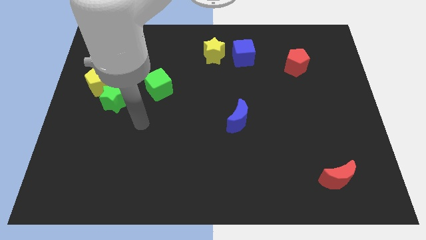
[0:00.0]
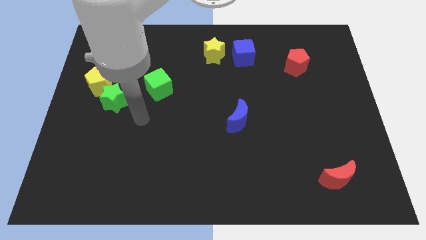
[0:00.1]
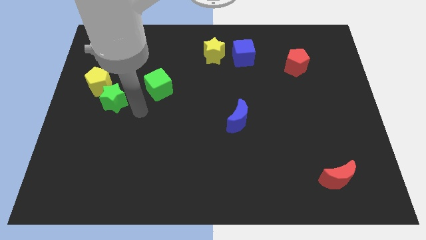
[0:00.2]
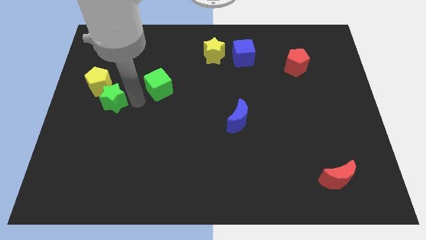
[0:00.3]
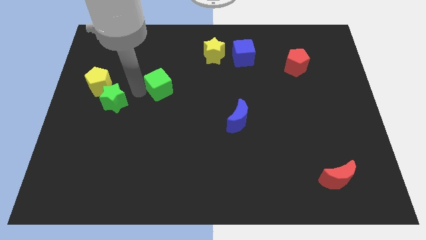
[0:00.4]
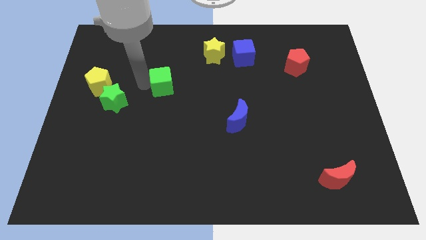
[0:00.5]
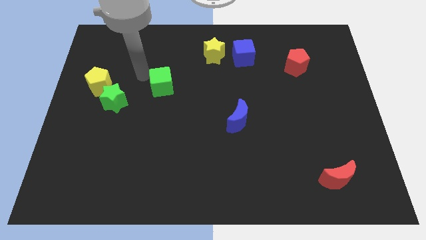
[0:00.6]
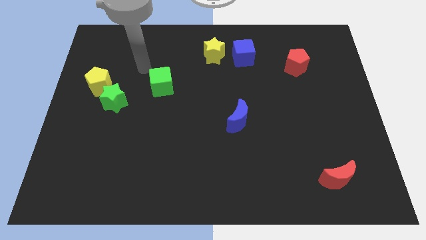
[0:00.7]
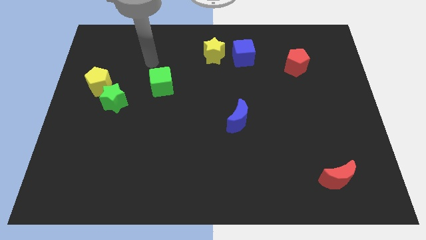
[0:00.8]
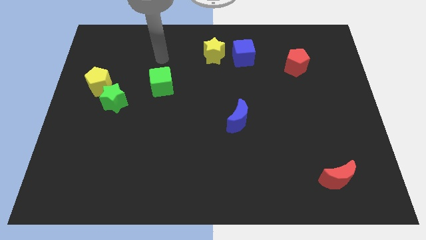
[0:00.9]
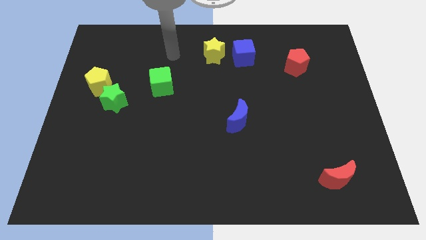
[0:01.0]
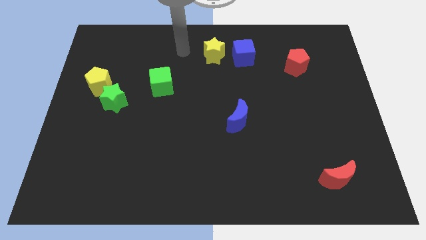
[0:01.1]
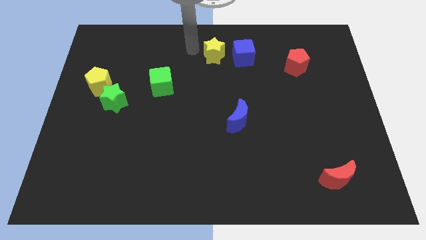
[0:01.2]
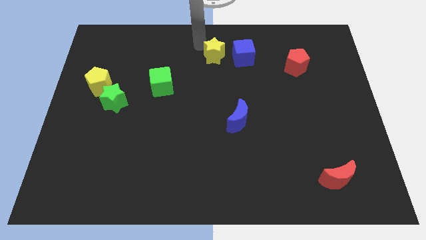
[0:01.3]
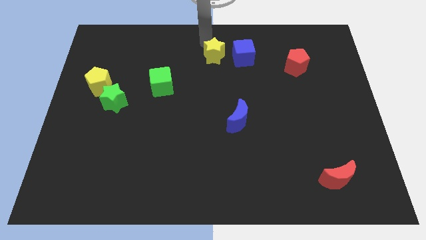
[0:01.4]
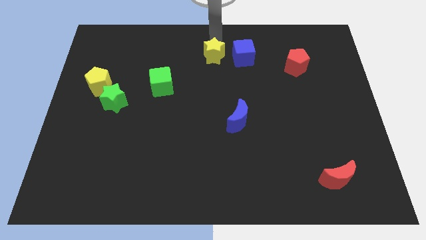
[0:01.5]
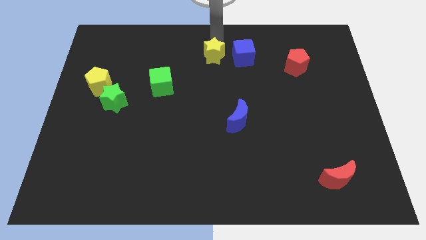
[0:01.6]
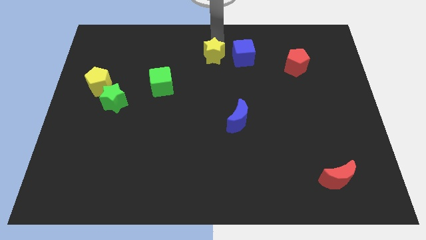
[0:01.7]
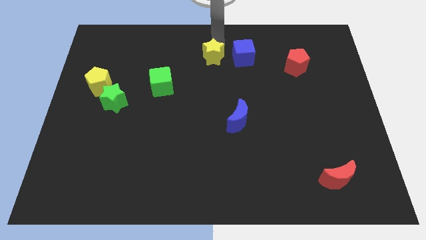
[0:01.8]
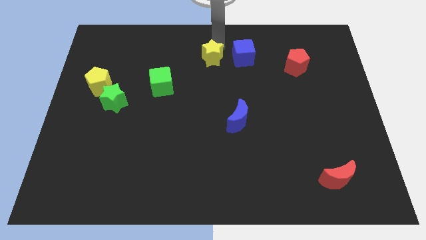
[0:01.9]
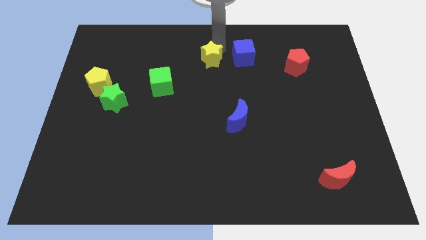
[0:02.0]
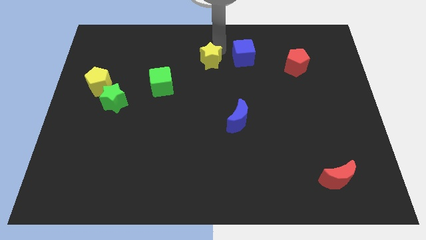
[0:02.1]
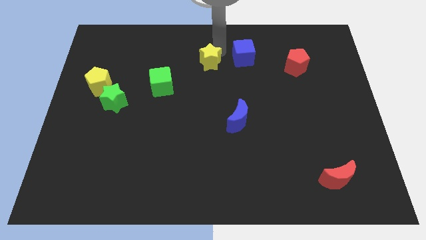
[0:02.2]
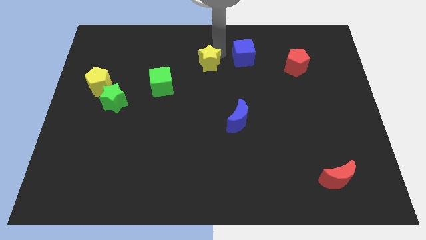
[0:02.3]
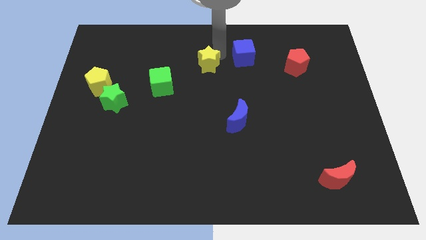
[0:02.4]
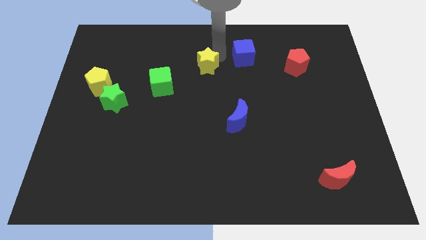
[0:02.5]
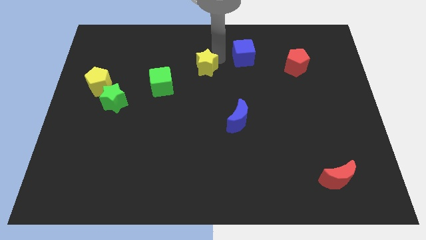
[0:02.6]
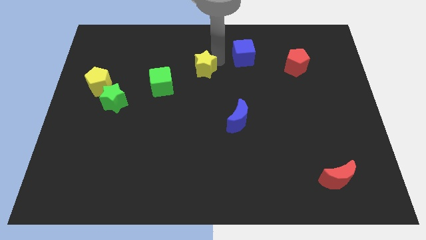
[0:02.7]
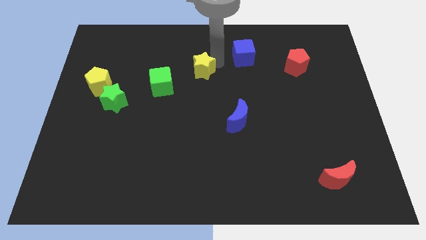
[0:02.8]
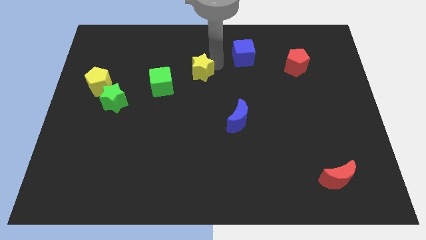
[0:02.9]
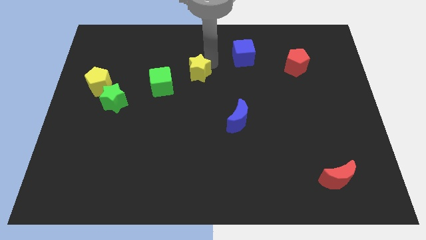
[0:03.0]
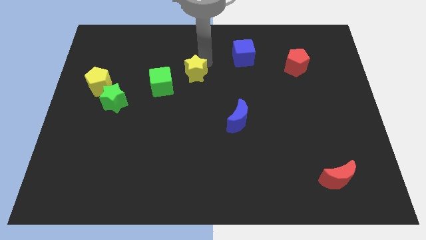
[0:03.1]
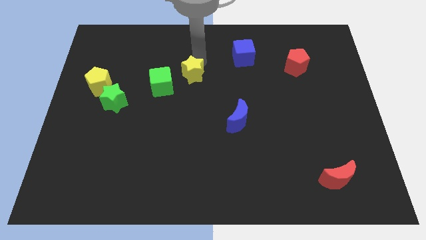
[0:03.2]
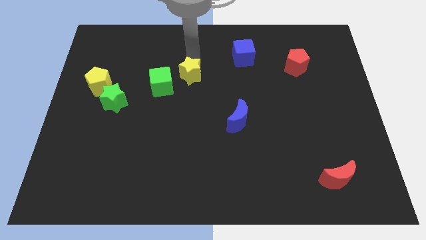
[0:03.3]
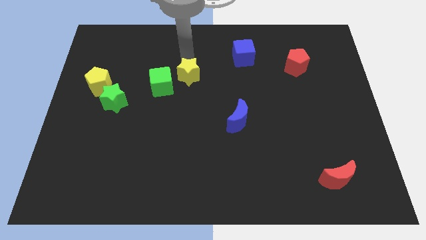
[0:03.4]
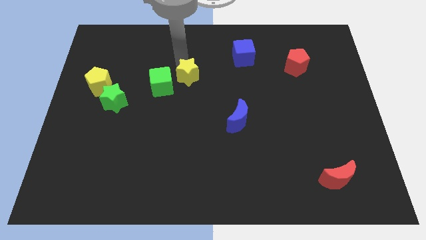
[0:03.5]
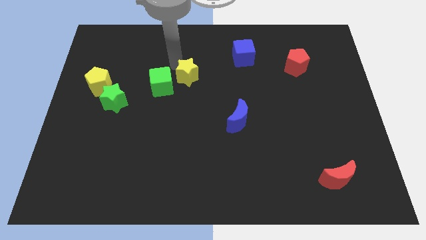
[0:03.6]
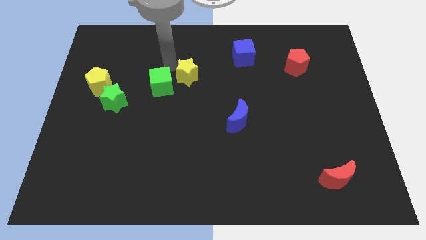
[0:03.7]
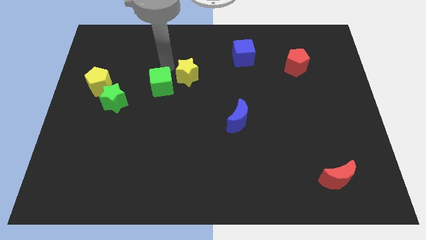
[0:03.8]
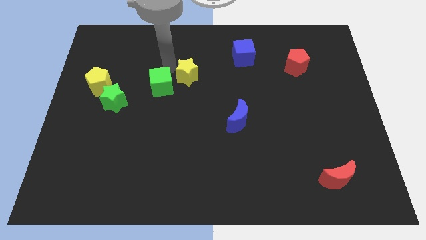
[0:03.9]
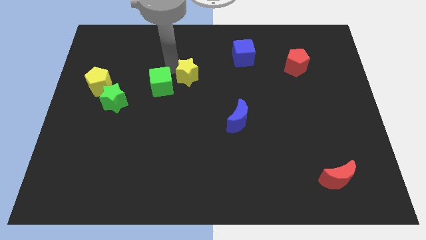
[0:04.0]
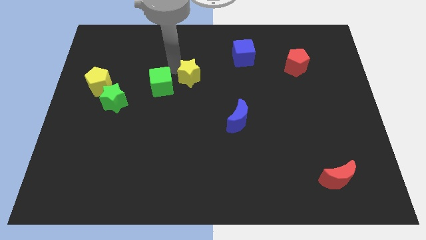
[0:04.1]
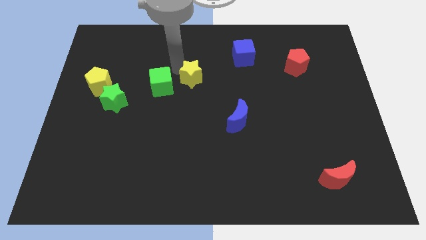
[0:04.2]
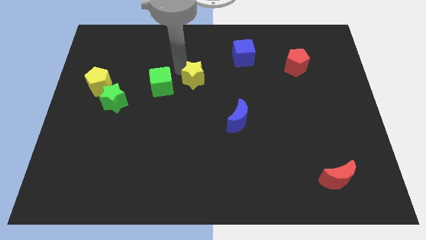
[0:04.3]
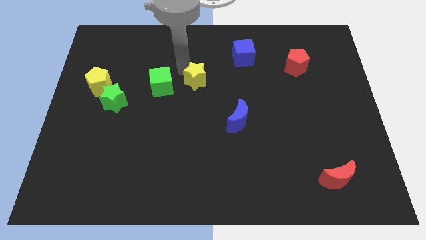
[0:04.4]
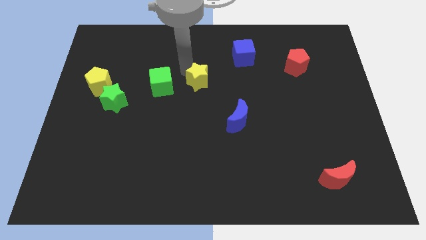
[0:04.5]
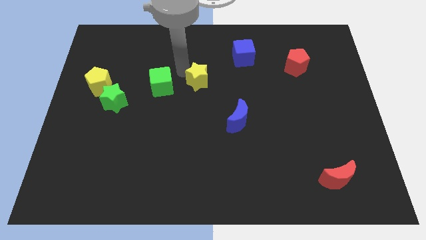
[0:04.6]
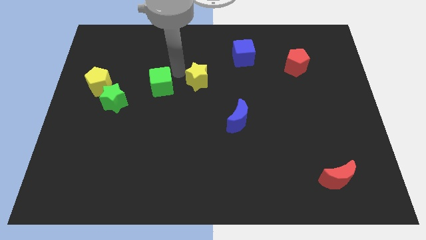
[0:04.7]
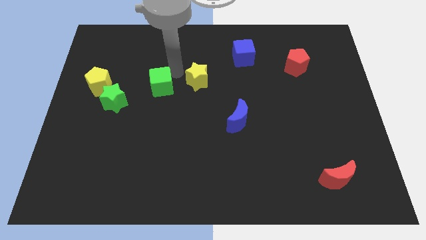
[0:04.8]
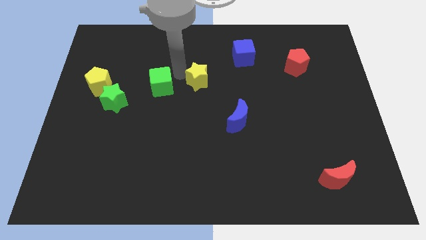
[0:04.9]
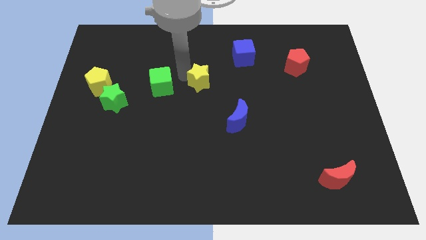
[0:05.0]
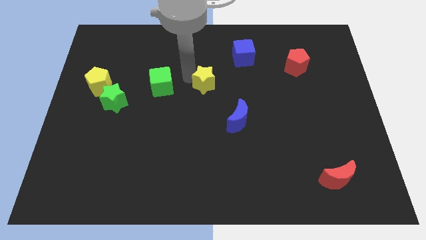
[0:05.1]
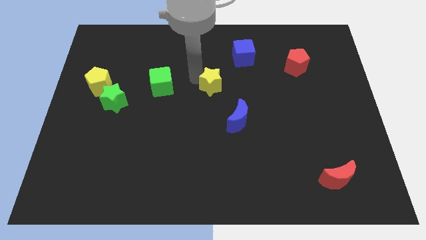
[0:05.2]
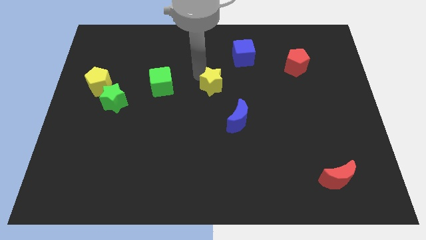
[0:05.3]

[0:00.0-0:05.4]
slide the yellow star diagonally up and to the left of the blue moon

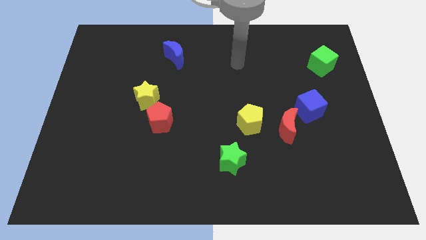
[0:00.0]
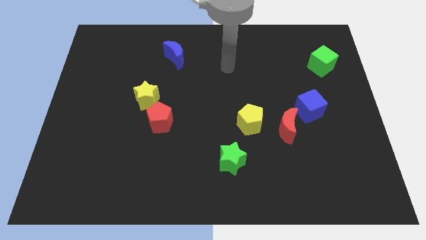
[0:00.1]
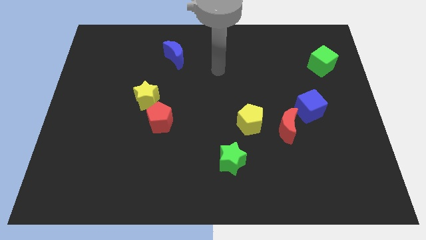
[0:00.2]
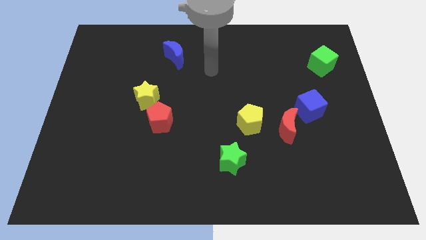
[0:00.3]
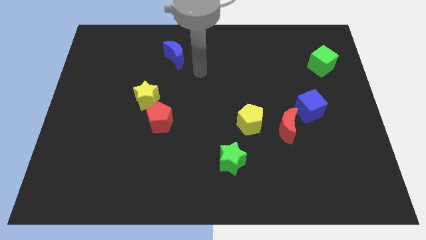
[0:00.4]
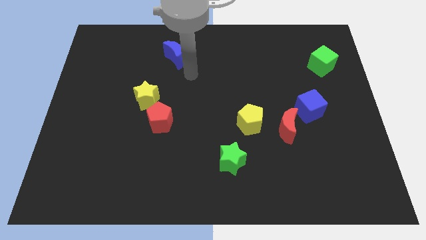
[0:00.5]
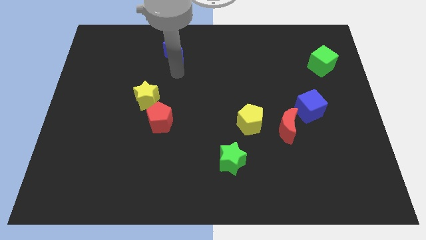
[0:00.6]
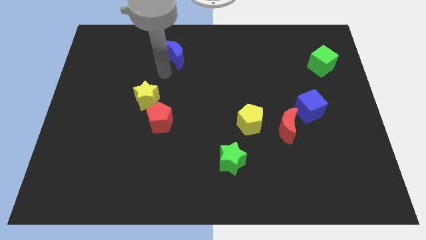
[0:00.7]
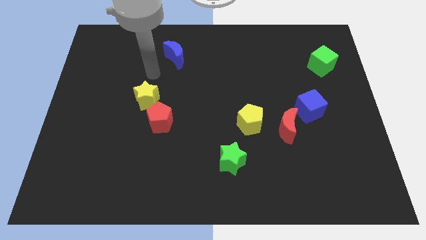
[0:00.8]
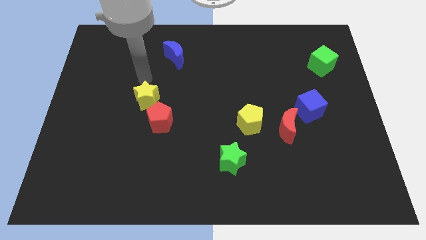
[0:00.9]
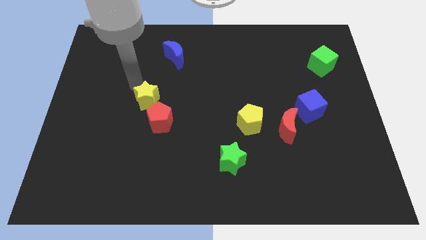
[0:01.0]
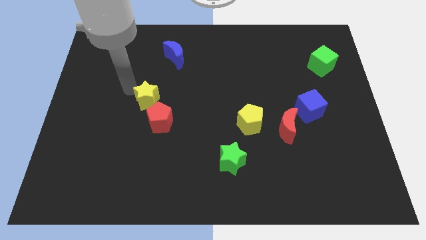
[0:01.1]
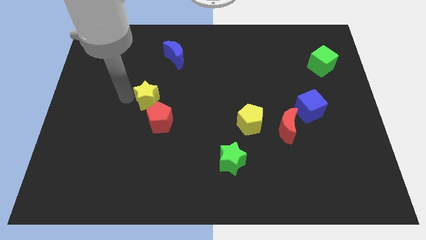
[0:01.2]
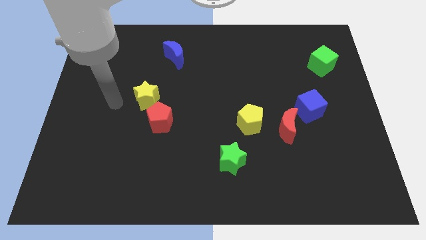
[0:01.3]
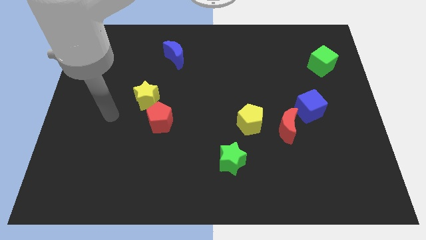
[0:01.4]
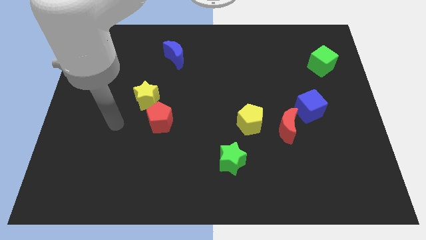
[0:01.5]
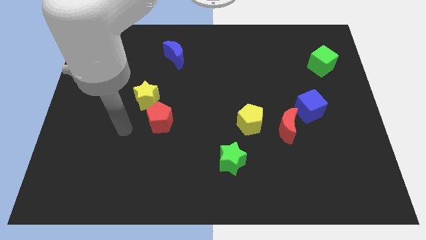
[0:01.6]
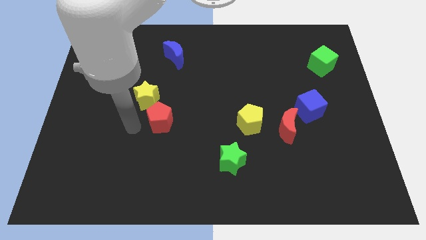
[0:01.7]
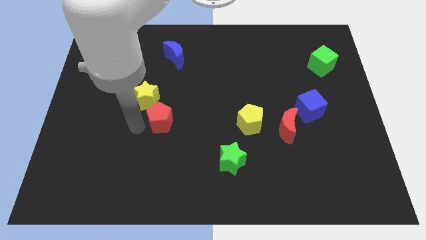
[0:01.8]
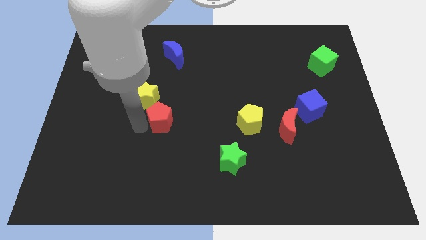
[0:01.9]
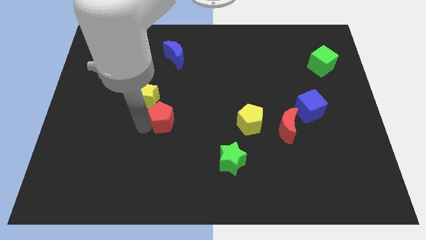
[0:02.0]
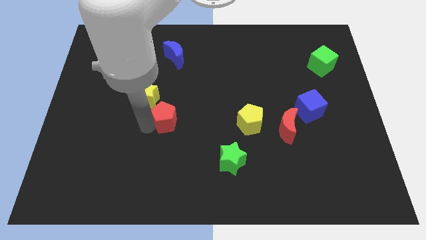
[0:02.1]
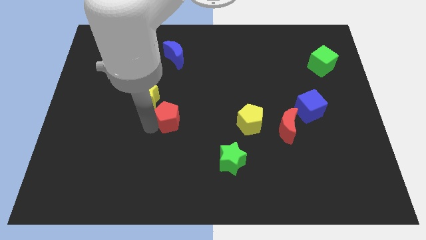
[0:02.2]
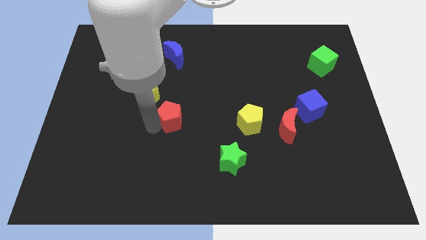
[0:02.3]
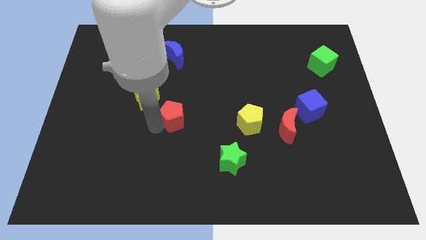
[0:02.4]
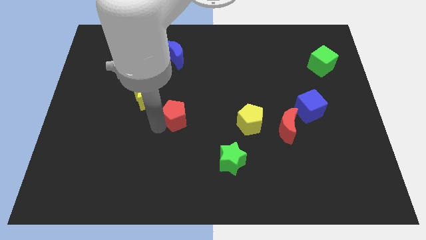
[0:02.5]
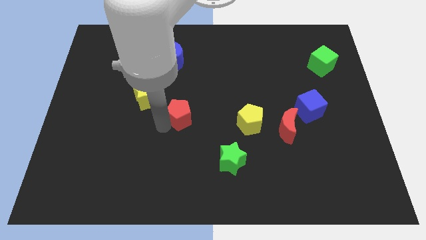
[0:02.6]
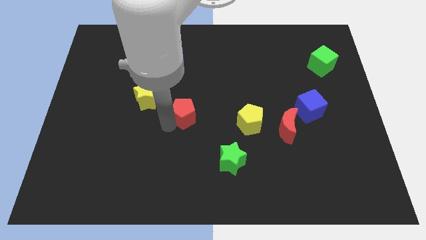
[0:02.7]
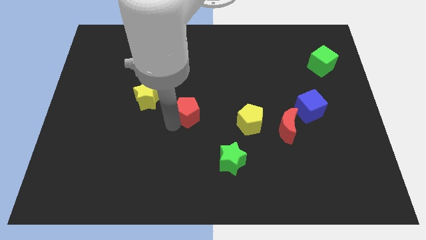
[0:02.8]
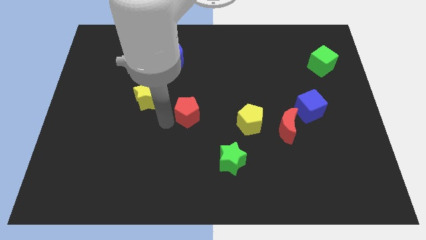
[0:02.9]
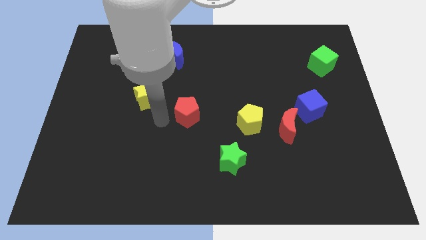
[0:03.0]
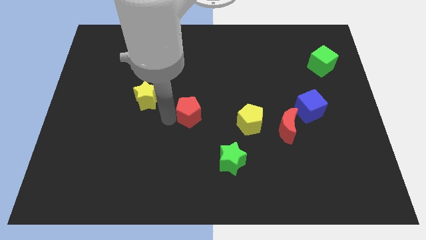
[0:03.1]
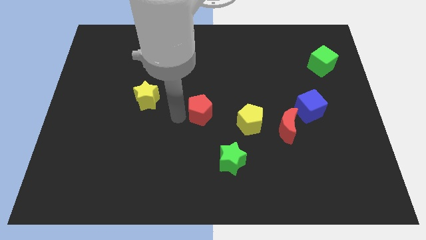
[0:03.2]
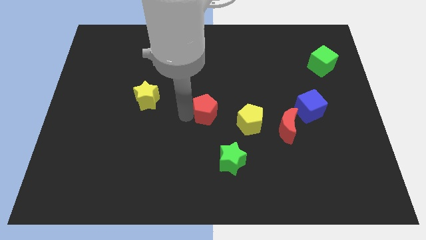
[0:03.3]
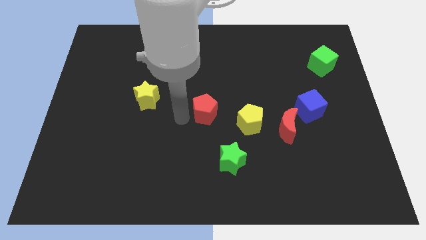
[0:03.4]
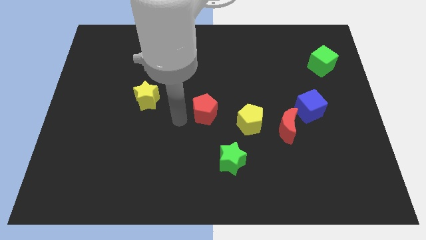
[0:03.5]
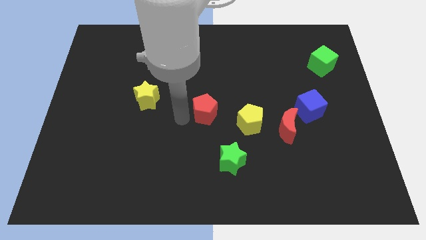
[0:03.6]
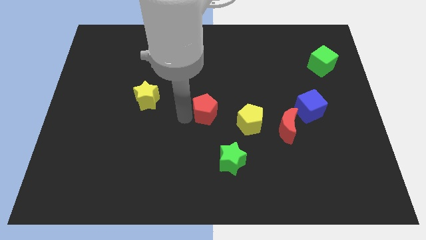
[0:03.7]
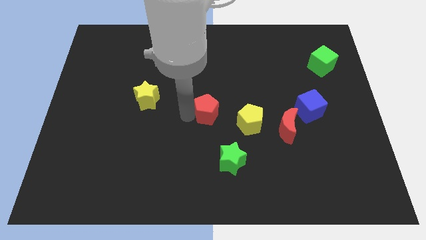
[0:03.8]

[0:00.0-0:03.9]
push the red pentagon to the top left side of the yellow pentagon
